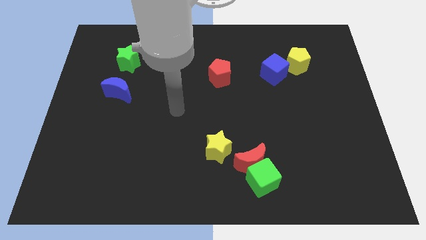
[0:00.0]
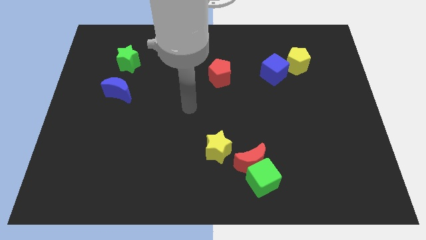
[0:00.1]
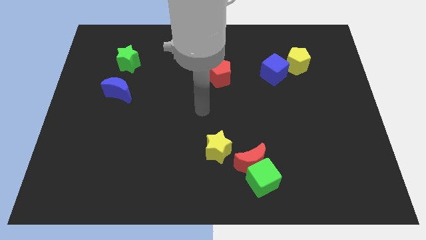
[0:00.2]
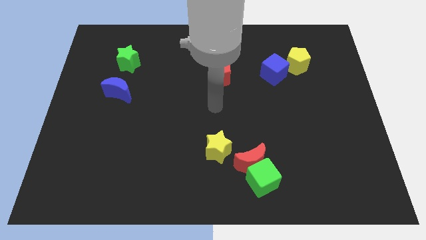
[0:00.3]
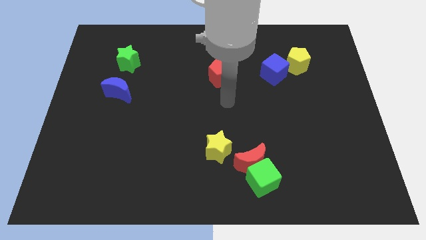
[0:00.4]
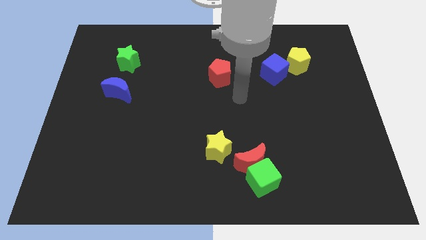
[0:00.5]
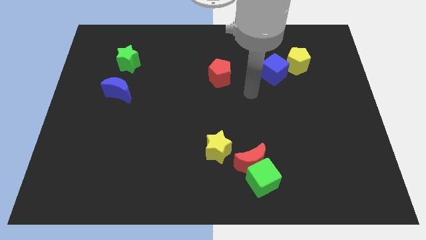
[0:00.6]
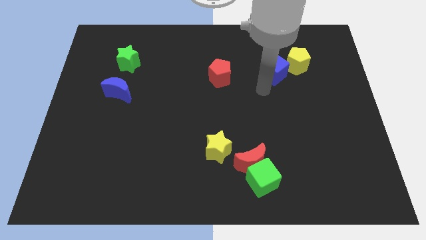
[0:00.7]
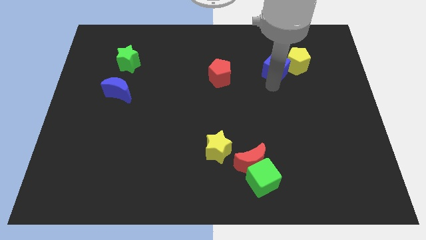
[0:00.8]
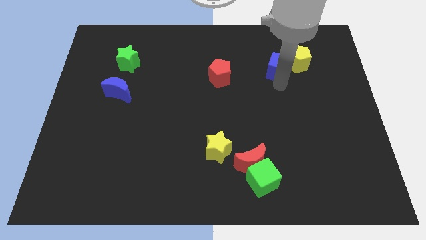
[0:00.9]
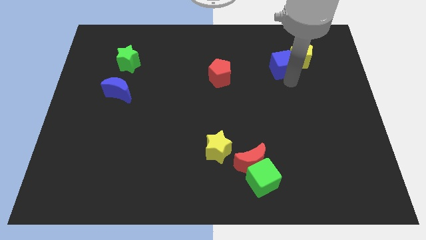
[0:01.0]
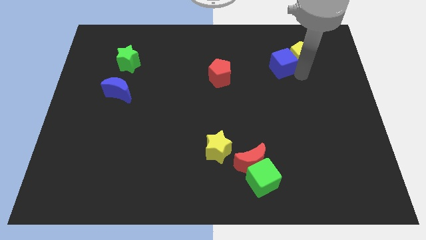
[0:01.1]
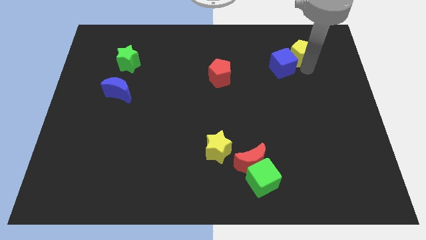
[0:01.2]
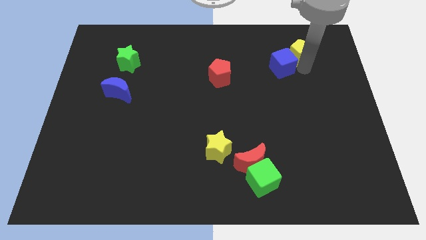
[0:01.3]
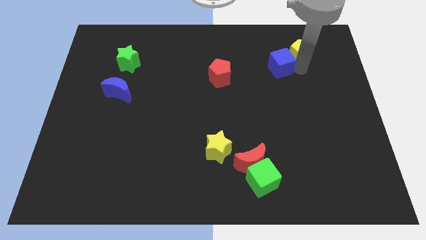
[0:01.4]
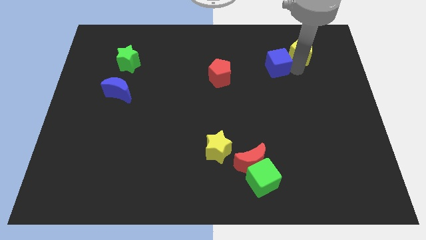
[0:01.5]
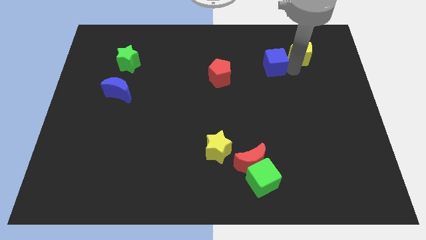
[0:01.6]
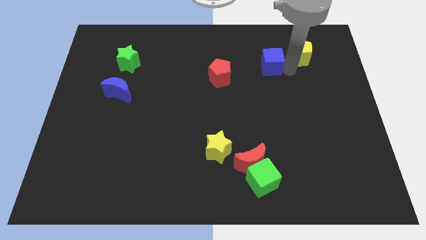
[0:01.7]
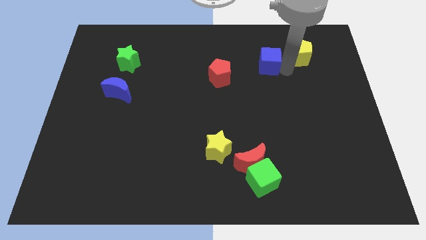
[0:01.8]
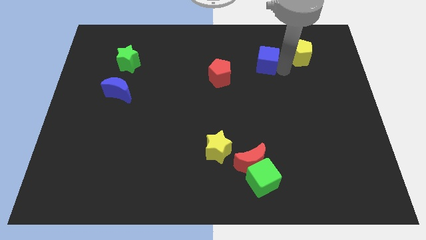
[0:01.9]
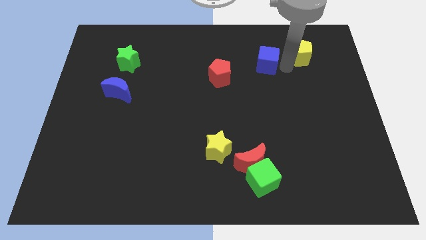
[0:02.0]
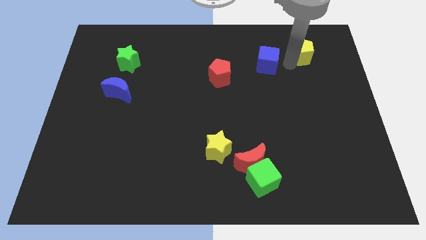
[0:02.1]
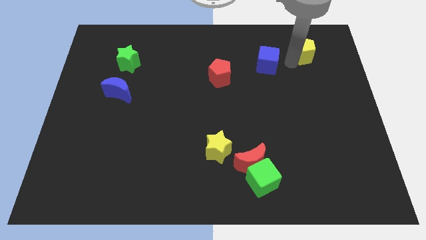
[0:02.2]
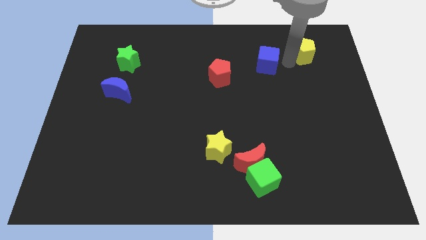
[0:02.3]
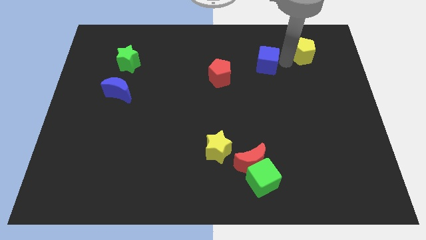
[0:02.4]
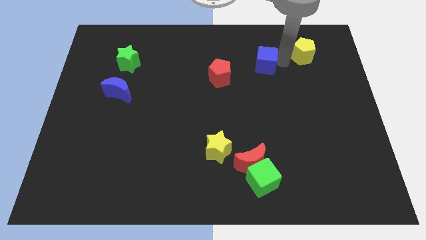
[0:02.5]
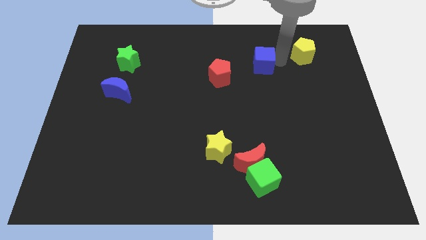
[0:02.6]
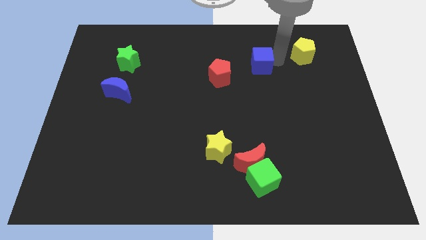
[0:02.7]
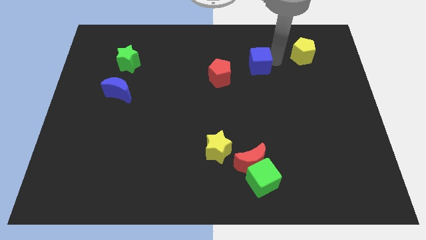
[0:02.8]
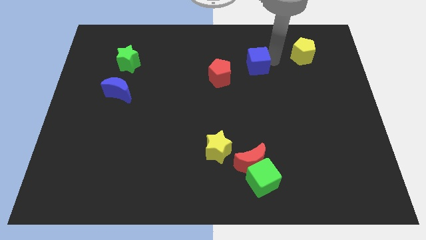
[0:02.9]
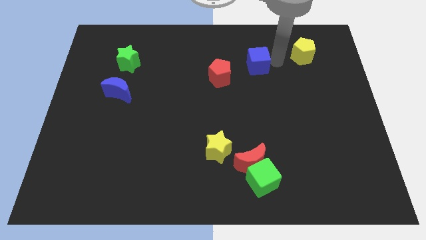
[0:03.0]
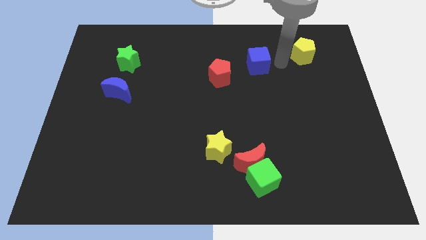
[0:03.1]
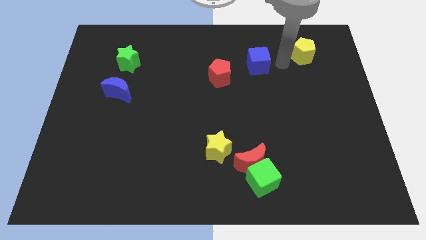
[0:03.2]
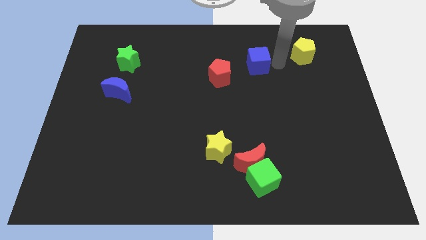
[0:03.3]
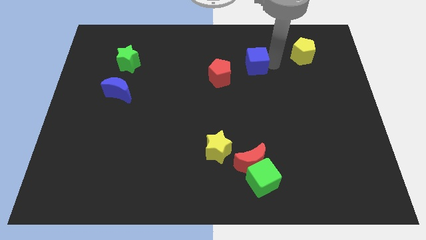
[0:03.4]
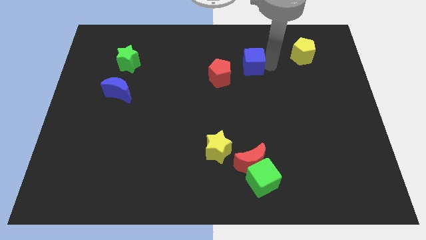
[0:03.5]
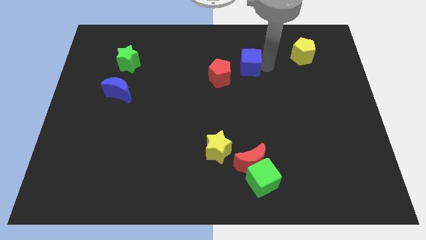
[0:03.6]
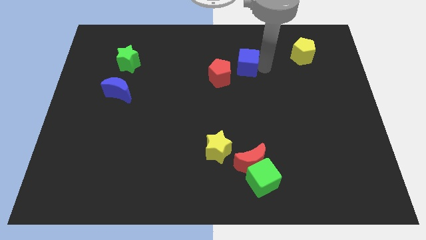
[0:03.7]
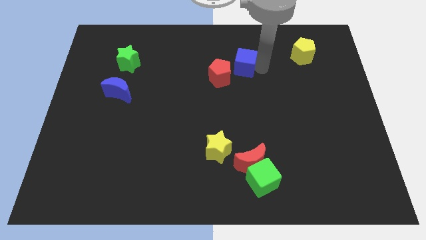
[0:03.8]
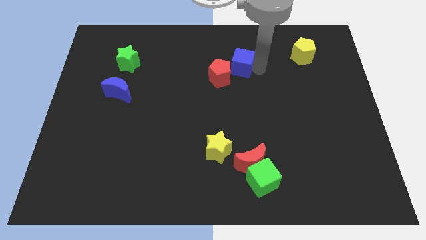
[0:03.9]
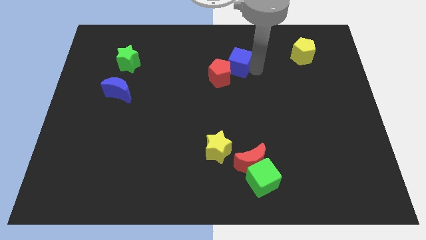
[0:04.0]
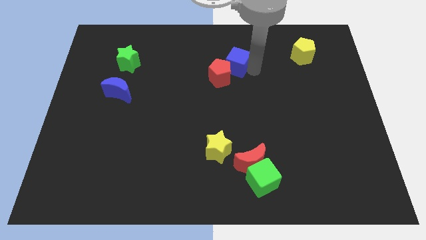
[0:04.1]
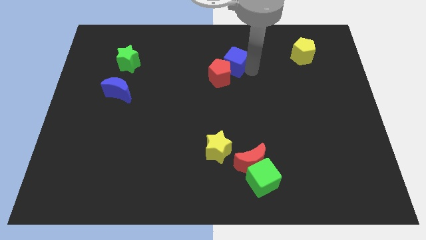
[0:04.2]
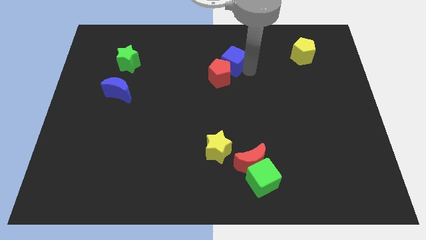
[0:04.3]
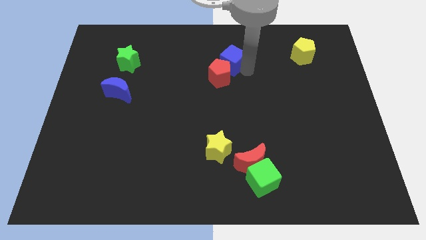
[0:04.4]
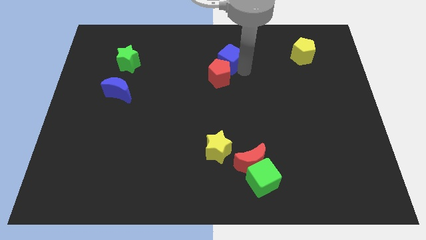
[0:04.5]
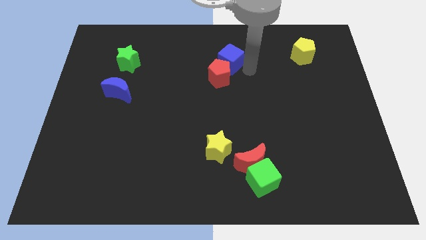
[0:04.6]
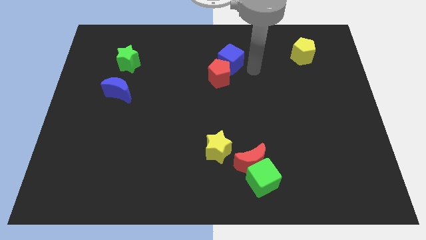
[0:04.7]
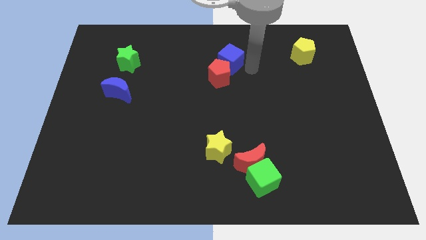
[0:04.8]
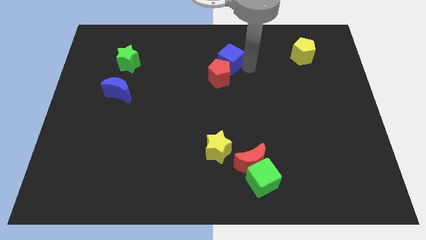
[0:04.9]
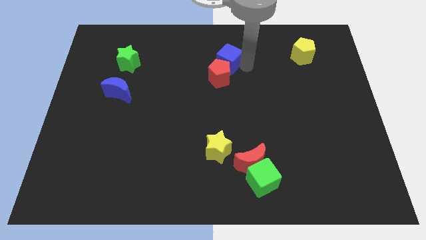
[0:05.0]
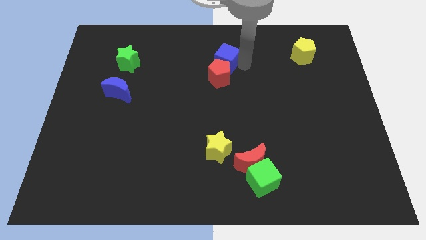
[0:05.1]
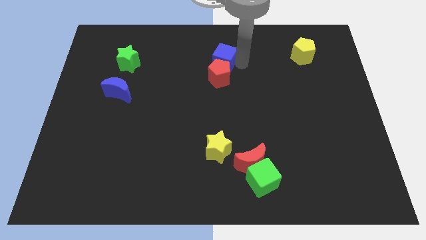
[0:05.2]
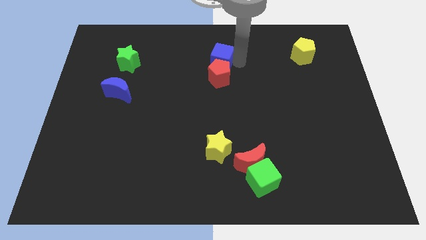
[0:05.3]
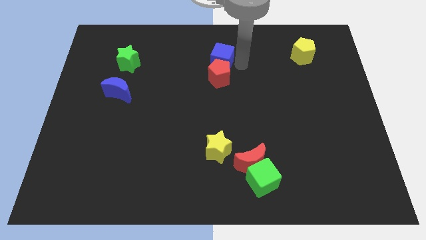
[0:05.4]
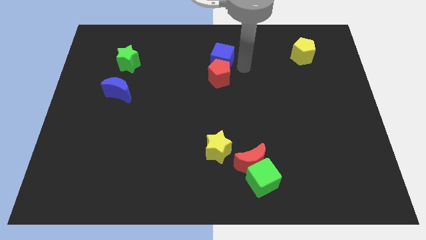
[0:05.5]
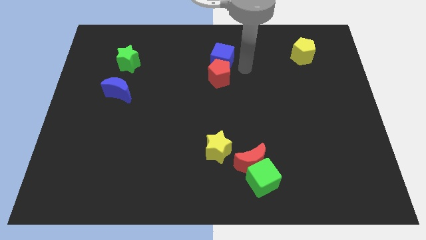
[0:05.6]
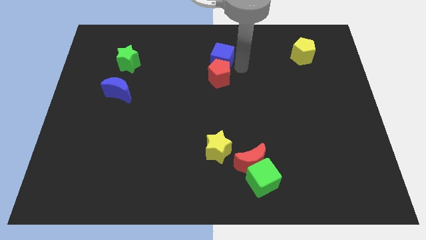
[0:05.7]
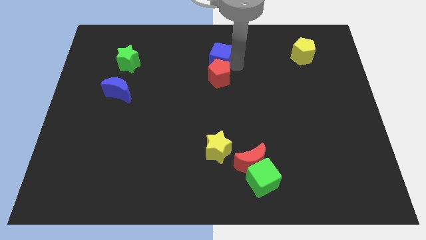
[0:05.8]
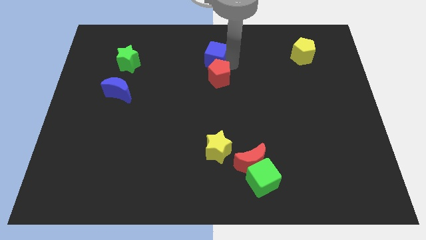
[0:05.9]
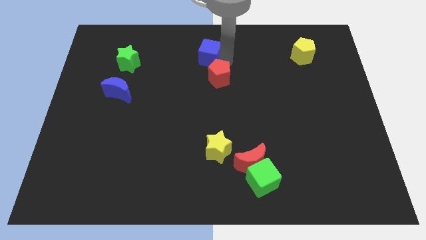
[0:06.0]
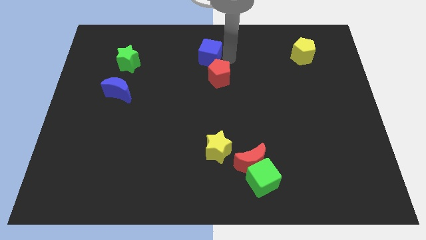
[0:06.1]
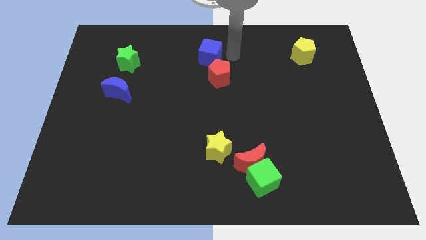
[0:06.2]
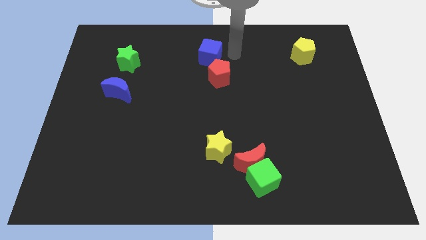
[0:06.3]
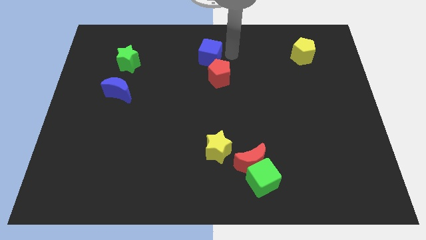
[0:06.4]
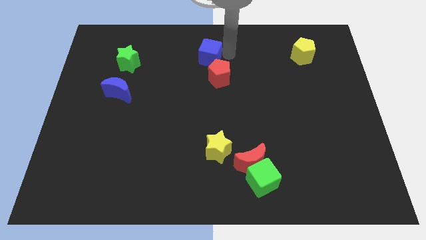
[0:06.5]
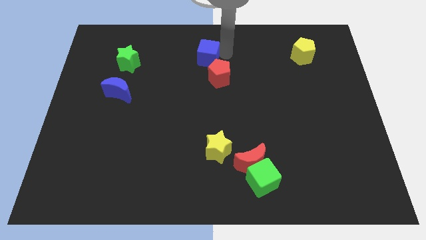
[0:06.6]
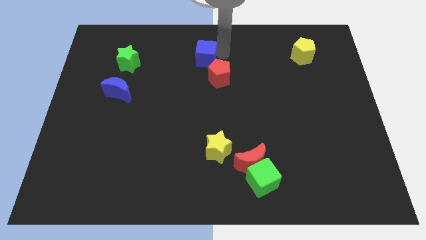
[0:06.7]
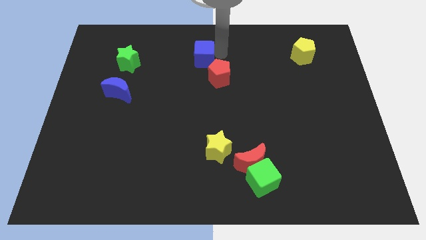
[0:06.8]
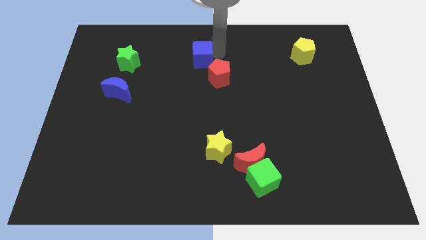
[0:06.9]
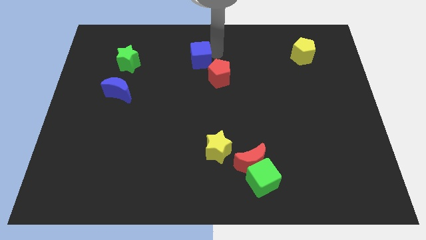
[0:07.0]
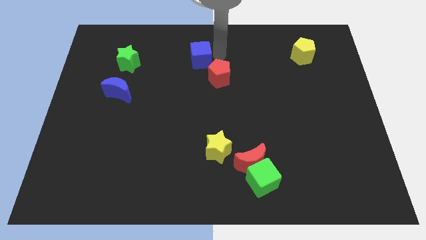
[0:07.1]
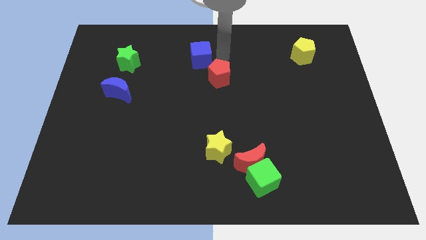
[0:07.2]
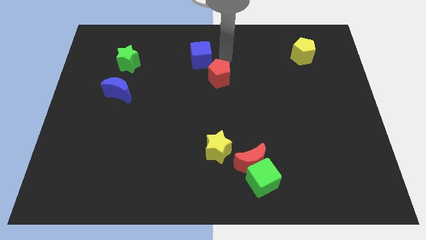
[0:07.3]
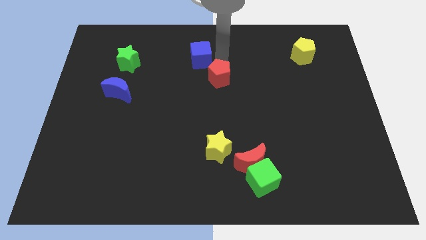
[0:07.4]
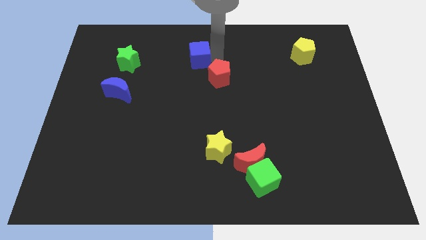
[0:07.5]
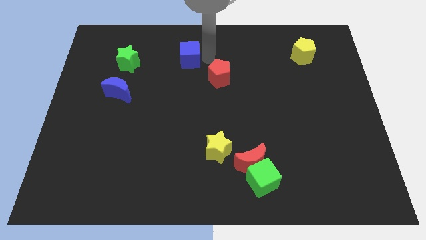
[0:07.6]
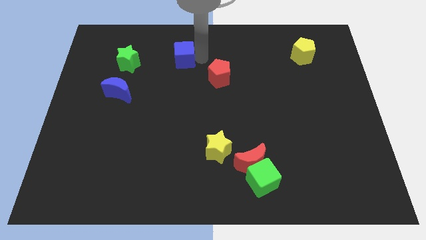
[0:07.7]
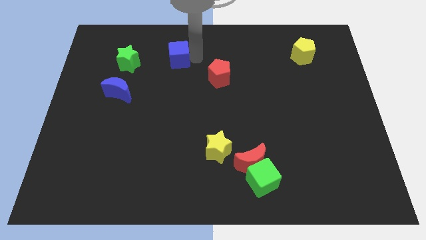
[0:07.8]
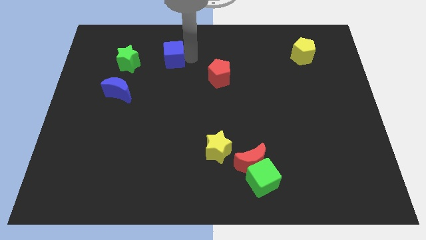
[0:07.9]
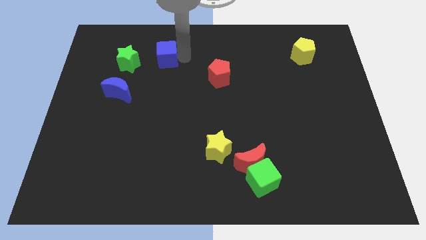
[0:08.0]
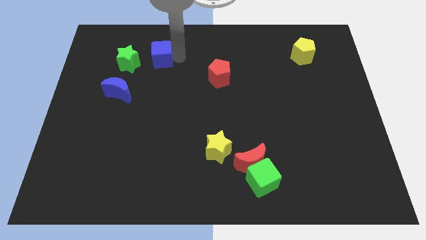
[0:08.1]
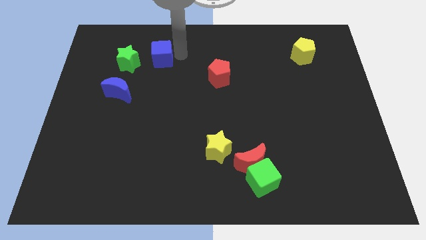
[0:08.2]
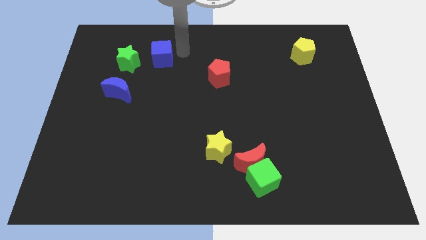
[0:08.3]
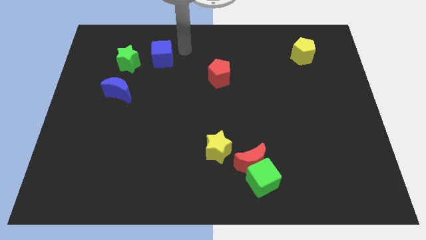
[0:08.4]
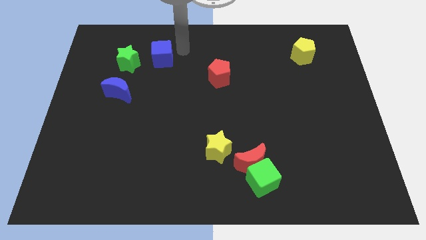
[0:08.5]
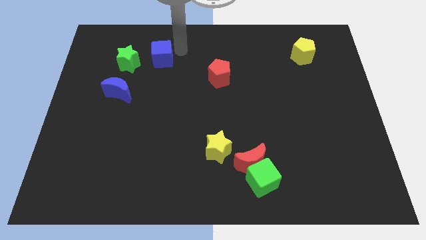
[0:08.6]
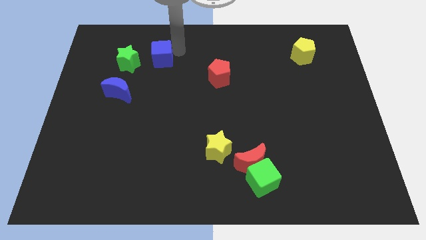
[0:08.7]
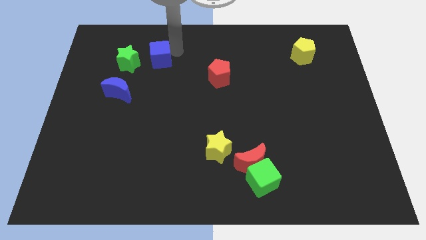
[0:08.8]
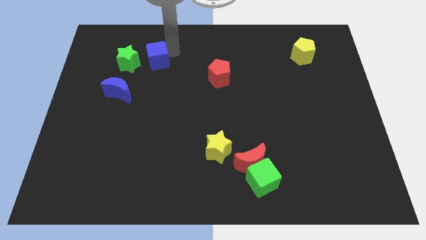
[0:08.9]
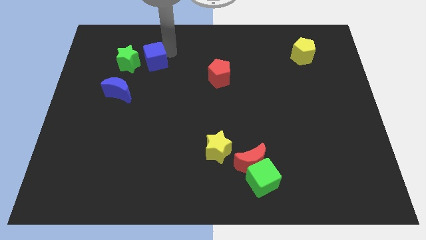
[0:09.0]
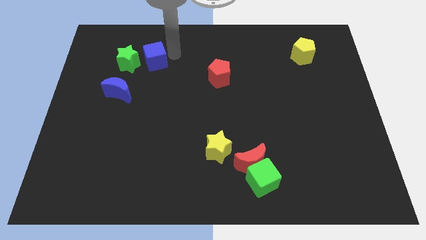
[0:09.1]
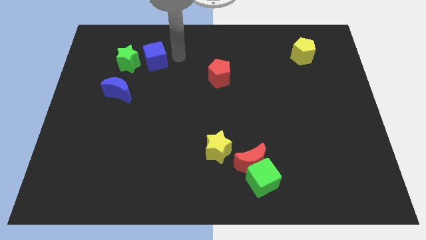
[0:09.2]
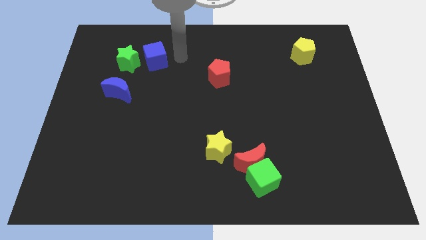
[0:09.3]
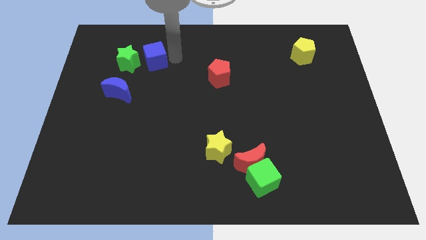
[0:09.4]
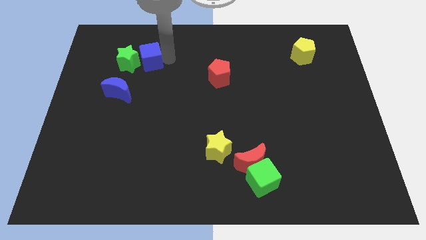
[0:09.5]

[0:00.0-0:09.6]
move the blue cube next to the green star
